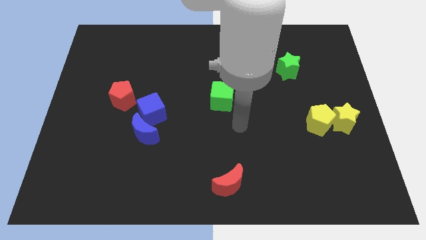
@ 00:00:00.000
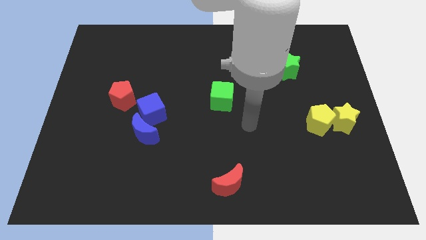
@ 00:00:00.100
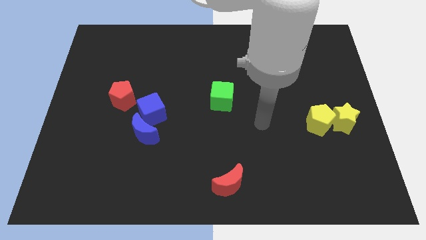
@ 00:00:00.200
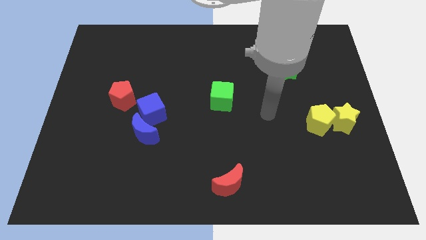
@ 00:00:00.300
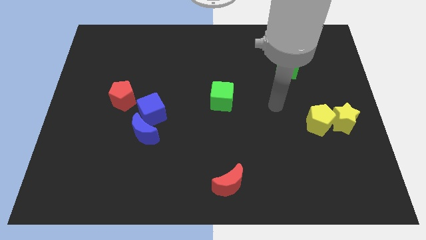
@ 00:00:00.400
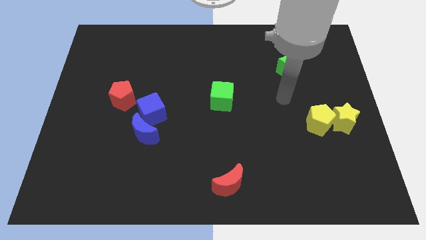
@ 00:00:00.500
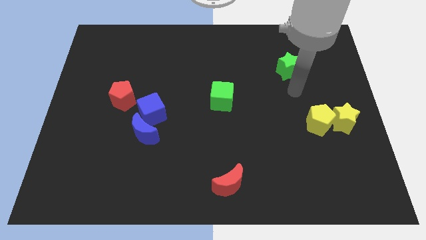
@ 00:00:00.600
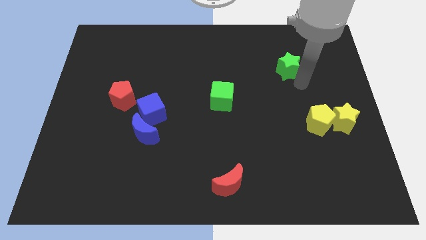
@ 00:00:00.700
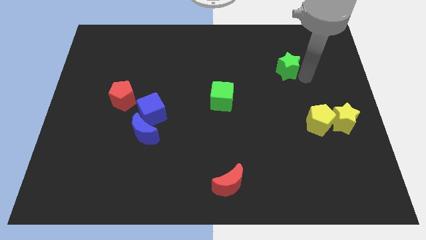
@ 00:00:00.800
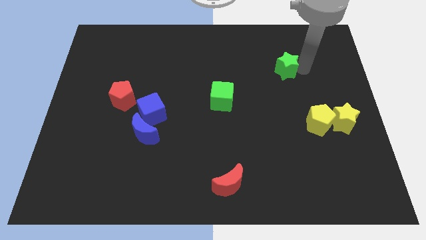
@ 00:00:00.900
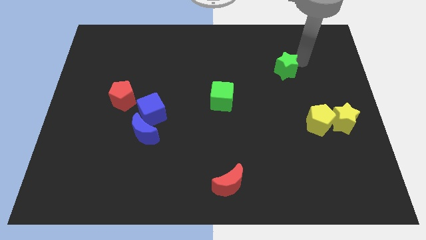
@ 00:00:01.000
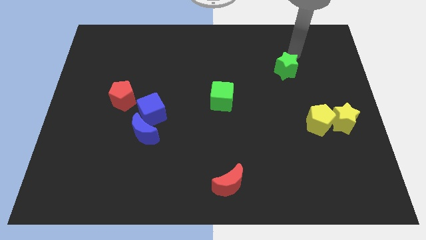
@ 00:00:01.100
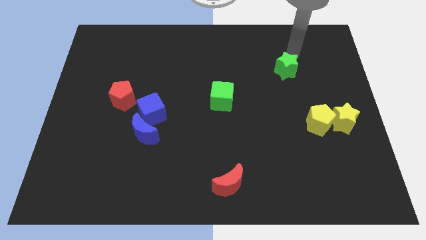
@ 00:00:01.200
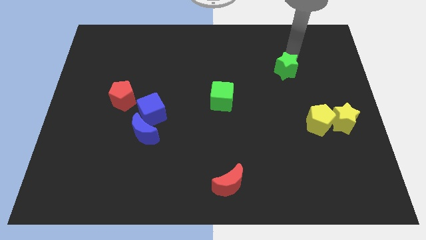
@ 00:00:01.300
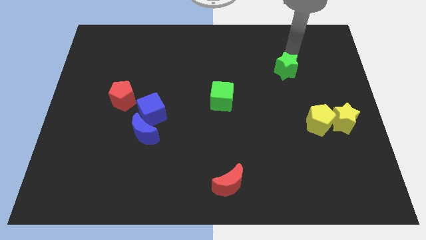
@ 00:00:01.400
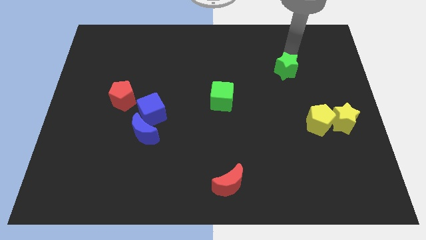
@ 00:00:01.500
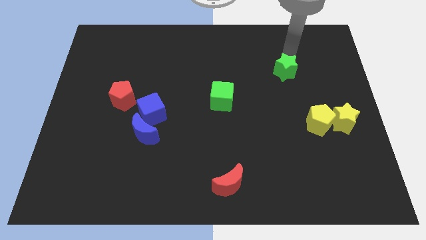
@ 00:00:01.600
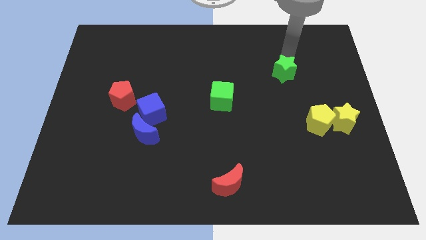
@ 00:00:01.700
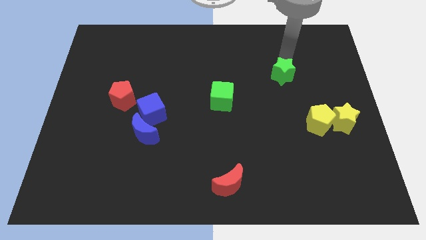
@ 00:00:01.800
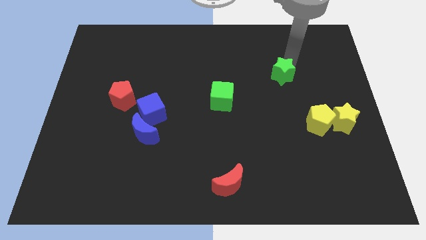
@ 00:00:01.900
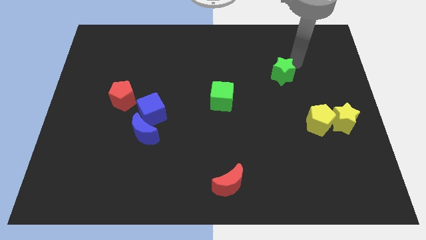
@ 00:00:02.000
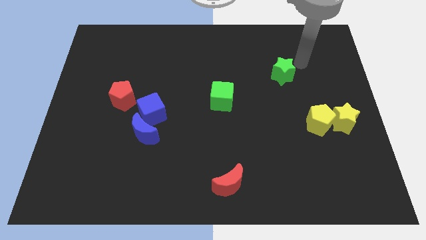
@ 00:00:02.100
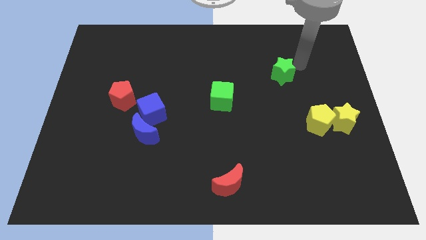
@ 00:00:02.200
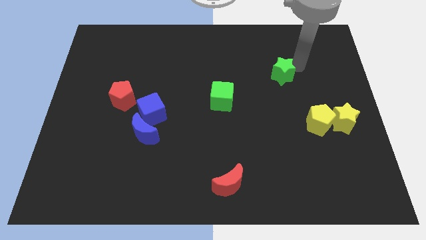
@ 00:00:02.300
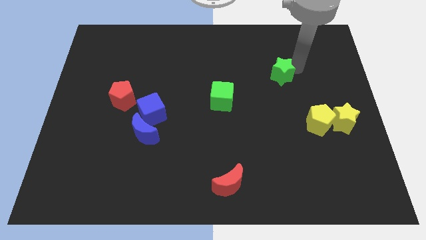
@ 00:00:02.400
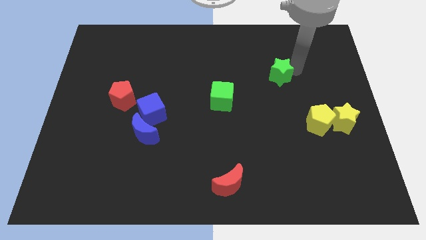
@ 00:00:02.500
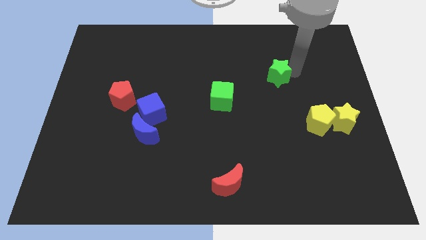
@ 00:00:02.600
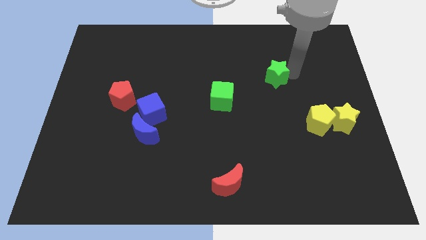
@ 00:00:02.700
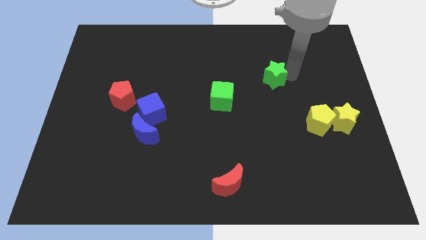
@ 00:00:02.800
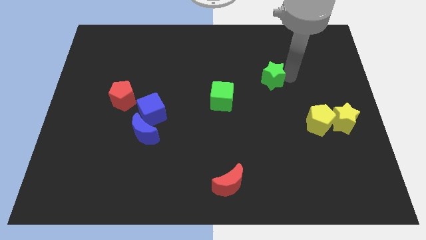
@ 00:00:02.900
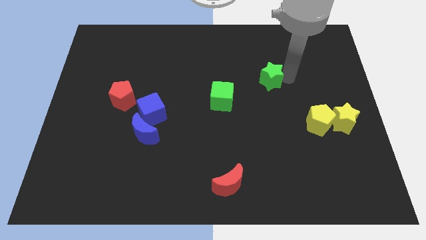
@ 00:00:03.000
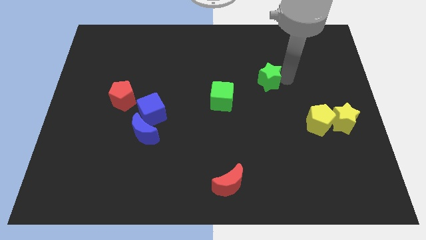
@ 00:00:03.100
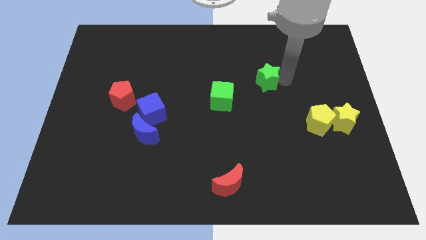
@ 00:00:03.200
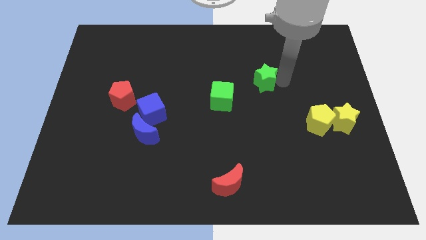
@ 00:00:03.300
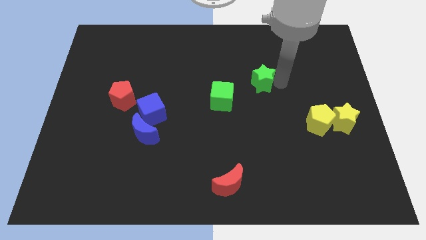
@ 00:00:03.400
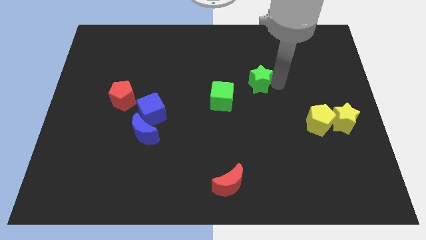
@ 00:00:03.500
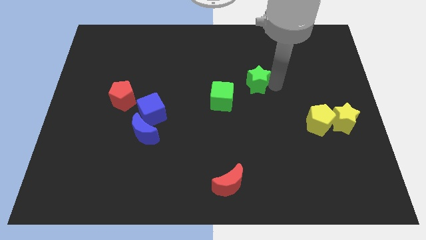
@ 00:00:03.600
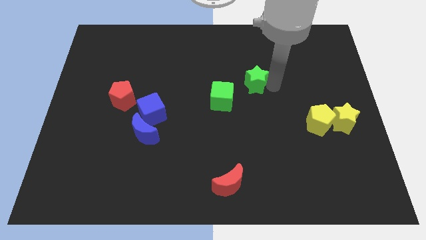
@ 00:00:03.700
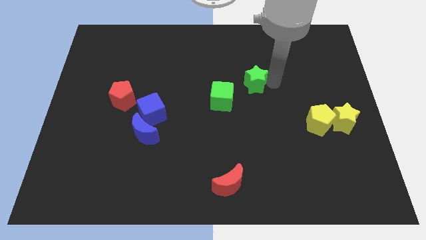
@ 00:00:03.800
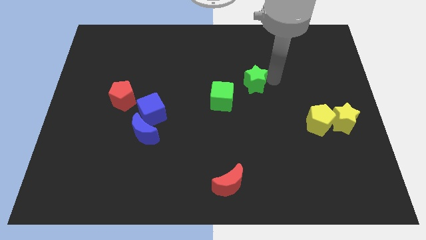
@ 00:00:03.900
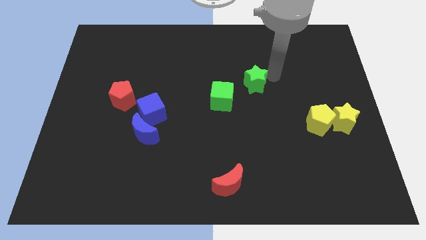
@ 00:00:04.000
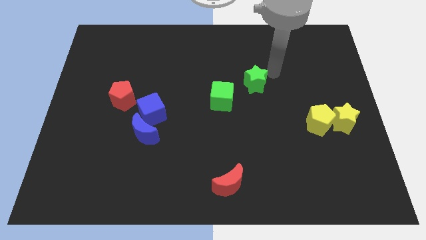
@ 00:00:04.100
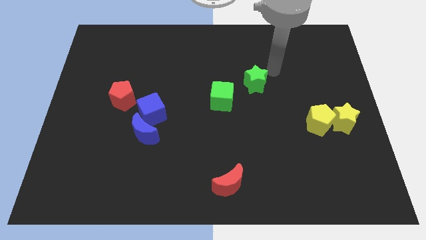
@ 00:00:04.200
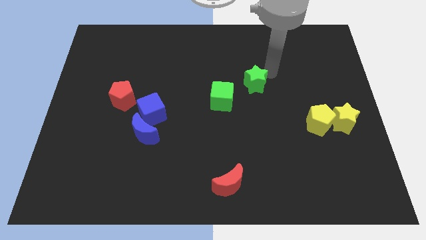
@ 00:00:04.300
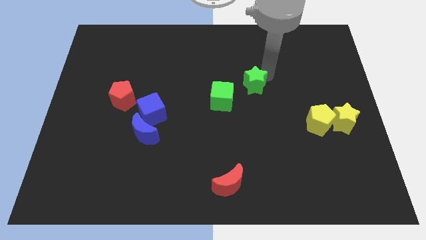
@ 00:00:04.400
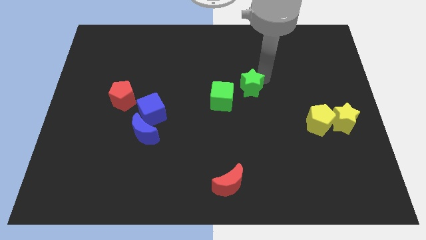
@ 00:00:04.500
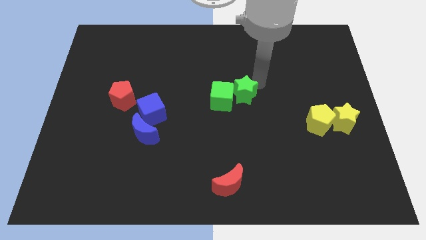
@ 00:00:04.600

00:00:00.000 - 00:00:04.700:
slide the green star next to the green cube

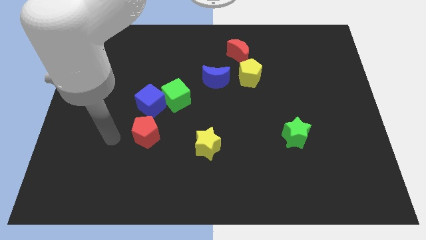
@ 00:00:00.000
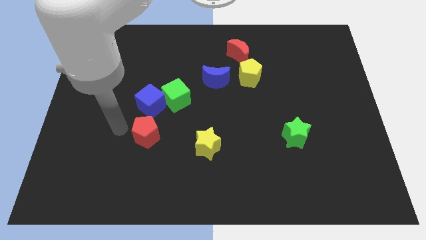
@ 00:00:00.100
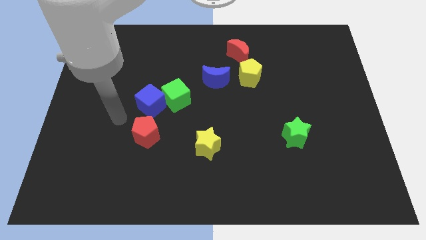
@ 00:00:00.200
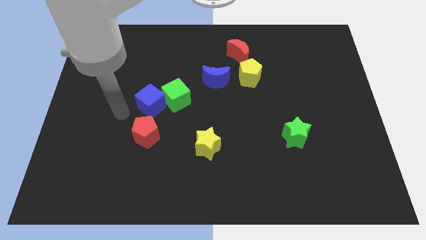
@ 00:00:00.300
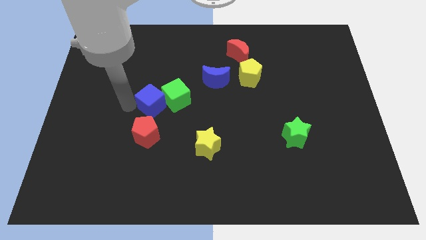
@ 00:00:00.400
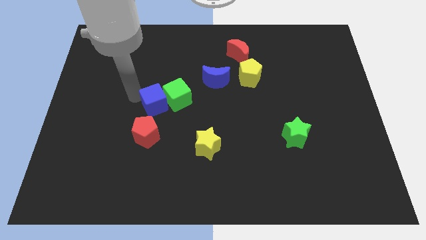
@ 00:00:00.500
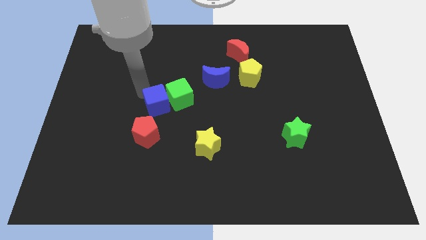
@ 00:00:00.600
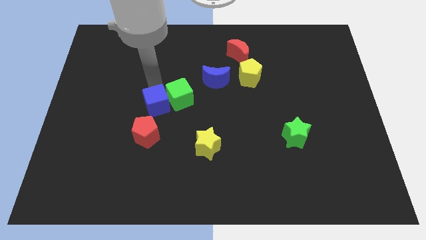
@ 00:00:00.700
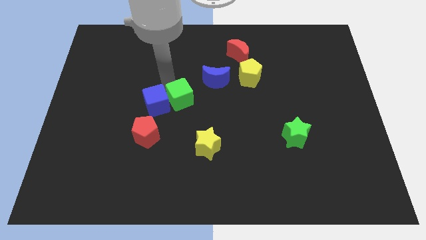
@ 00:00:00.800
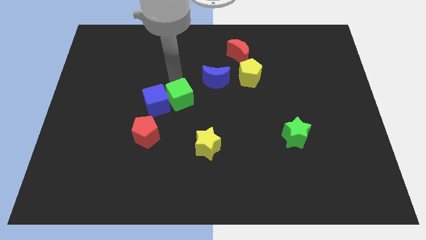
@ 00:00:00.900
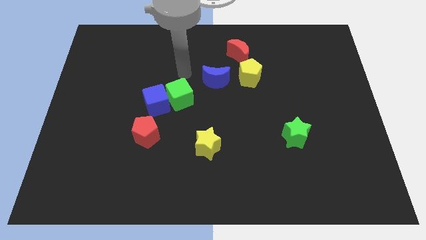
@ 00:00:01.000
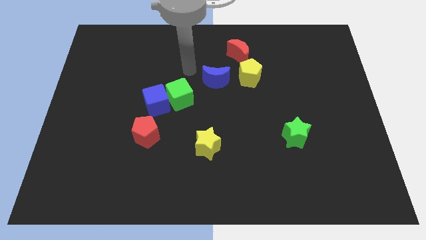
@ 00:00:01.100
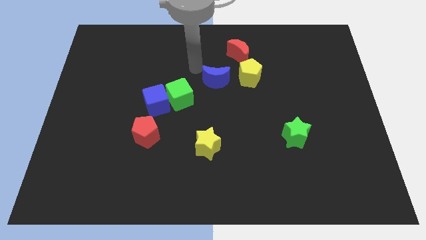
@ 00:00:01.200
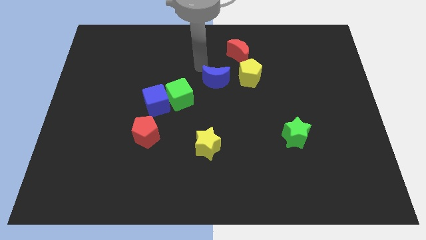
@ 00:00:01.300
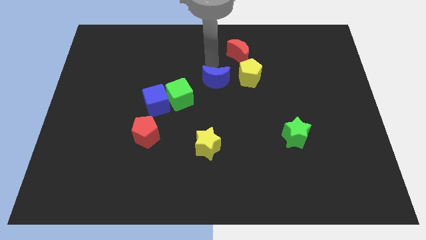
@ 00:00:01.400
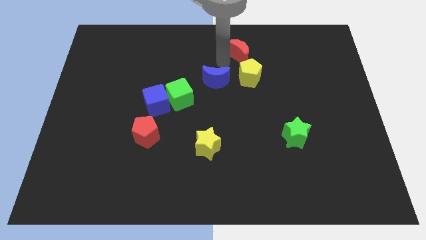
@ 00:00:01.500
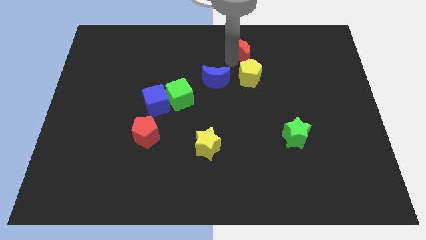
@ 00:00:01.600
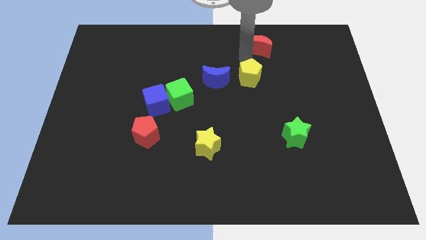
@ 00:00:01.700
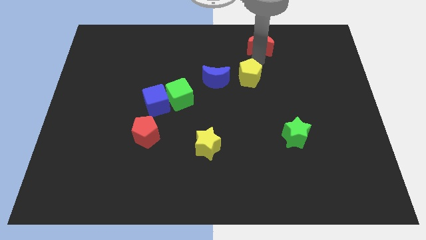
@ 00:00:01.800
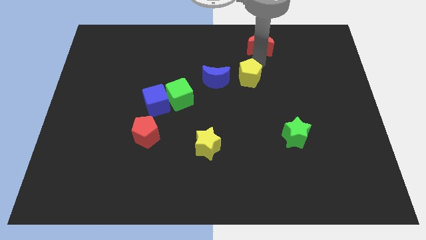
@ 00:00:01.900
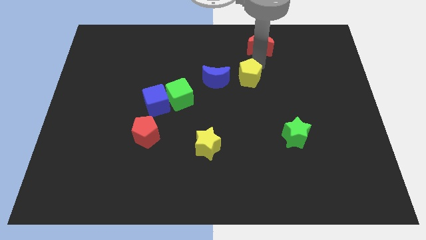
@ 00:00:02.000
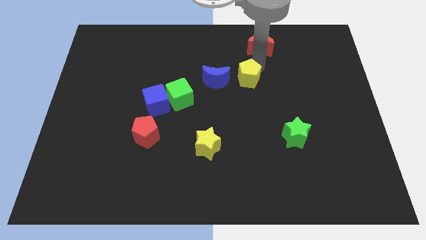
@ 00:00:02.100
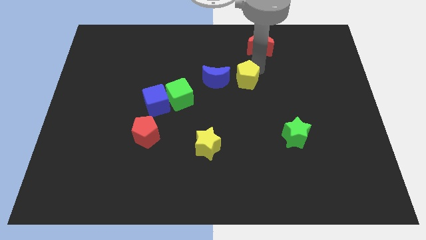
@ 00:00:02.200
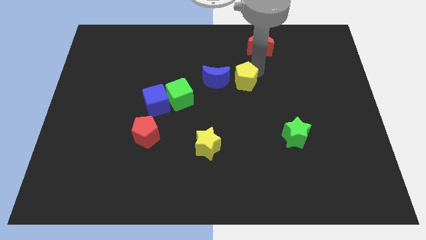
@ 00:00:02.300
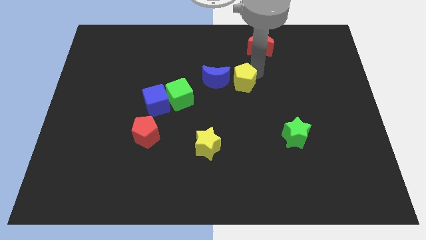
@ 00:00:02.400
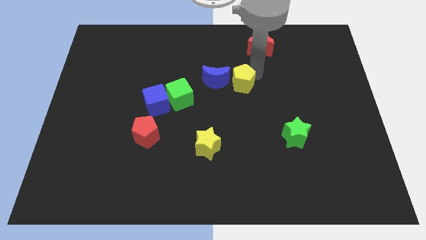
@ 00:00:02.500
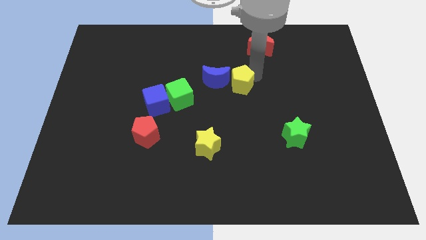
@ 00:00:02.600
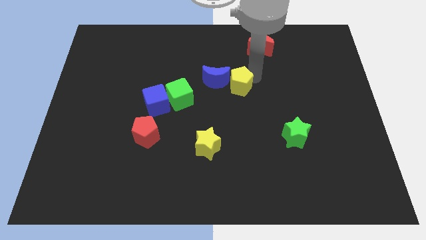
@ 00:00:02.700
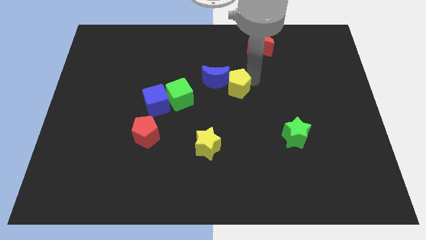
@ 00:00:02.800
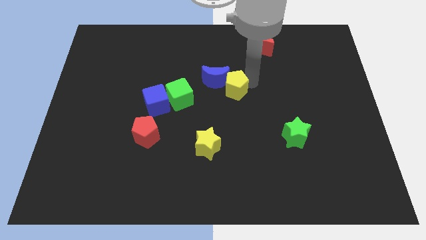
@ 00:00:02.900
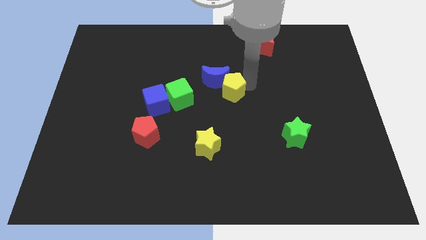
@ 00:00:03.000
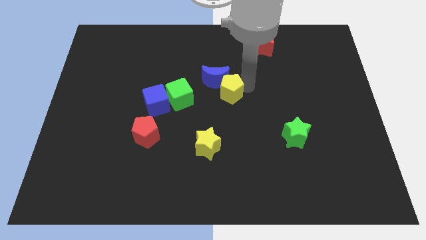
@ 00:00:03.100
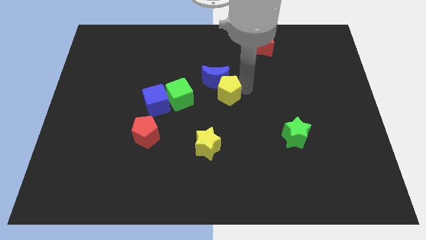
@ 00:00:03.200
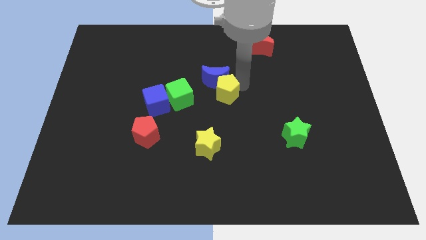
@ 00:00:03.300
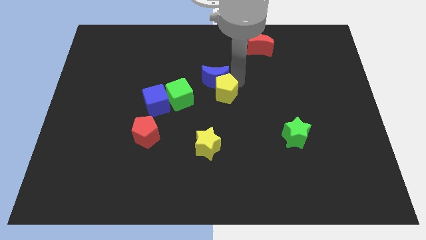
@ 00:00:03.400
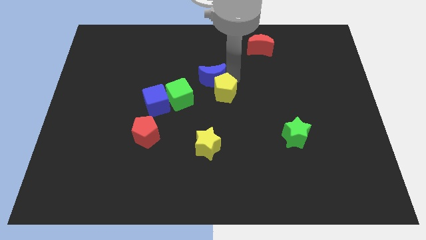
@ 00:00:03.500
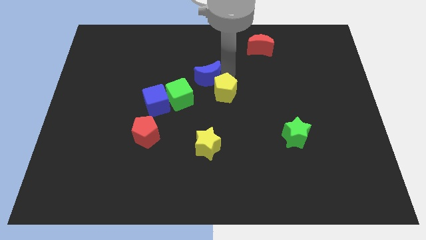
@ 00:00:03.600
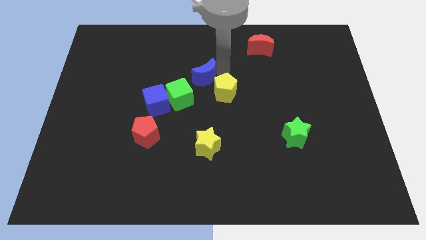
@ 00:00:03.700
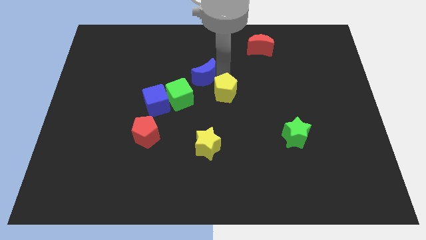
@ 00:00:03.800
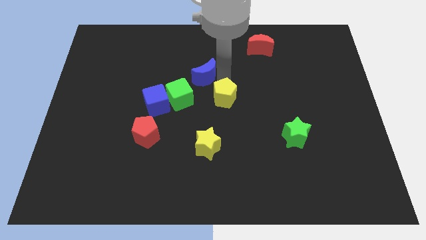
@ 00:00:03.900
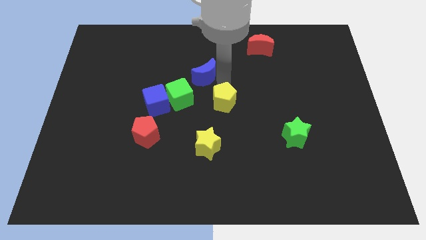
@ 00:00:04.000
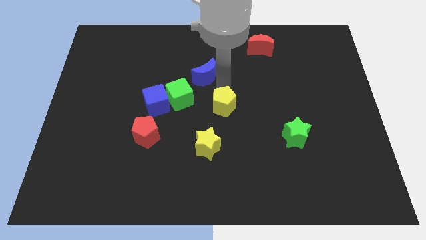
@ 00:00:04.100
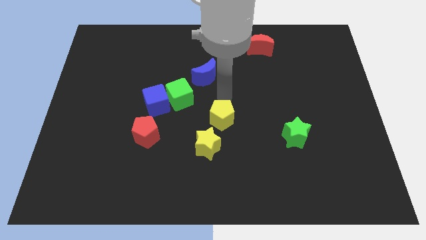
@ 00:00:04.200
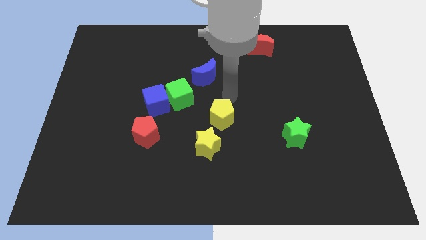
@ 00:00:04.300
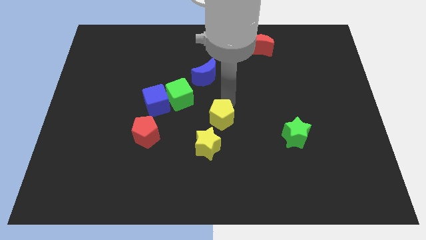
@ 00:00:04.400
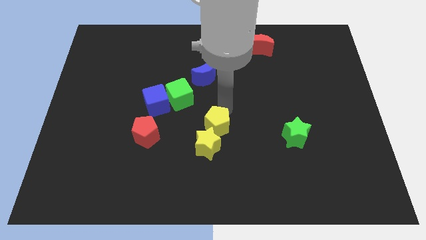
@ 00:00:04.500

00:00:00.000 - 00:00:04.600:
push the yellow pentagon close to the yellow star
